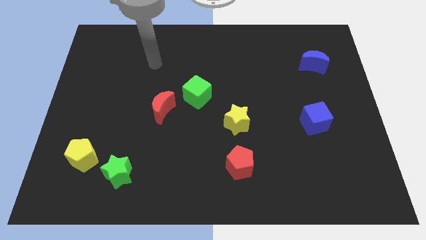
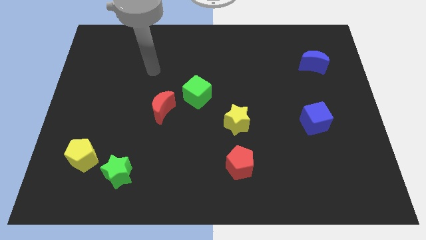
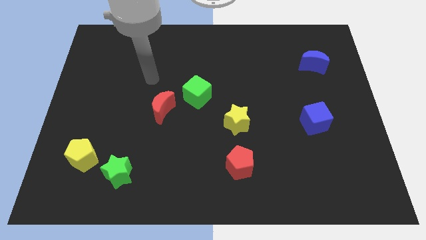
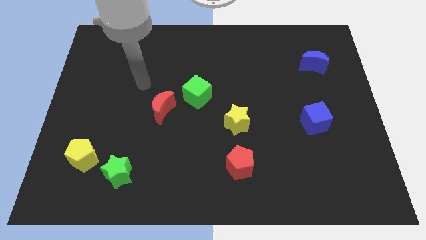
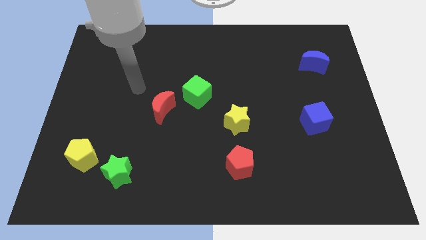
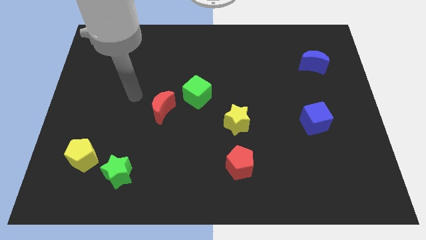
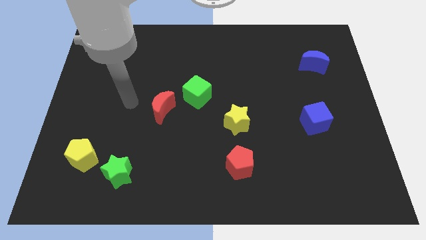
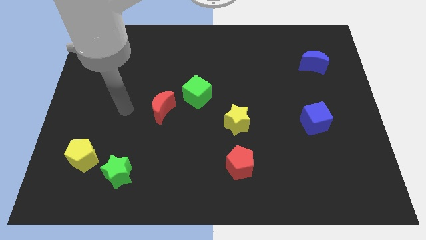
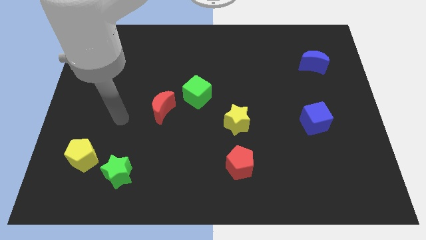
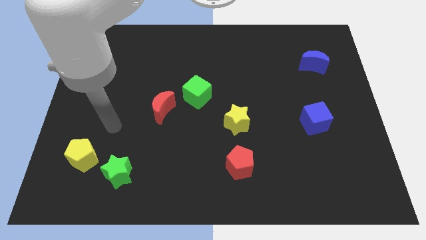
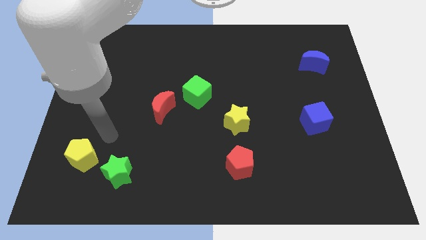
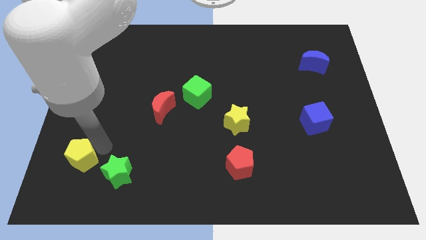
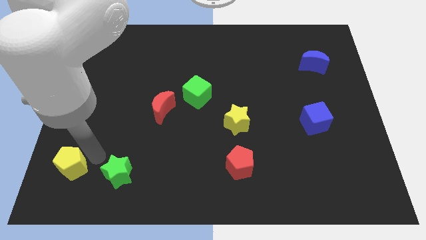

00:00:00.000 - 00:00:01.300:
move the green star away from the yellow pentagon

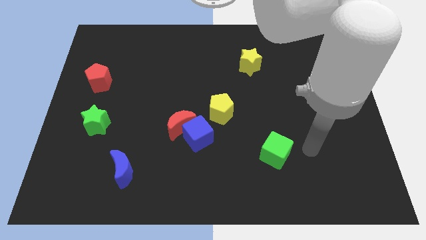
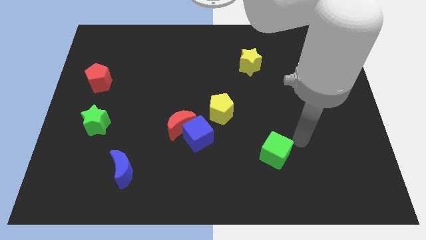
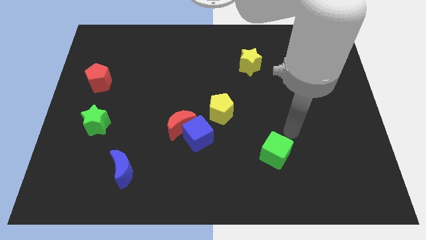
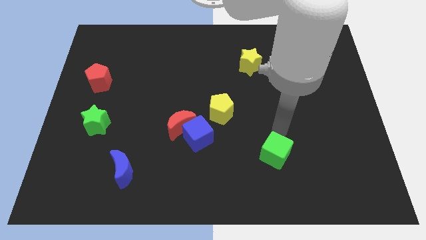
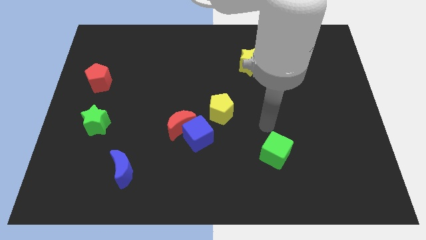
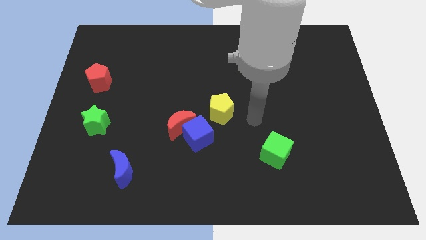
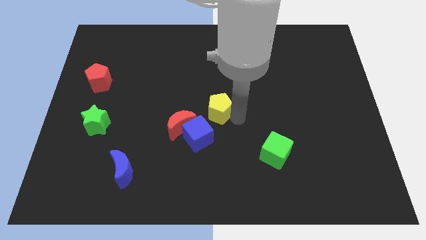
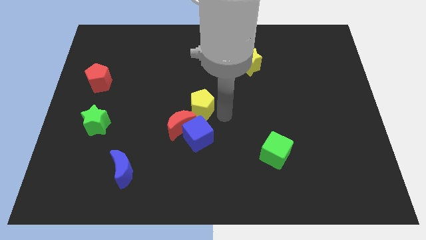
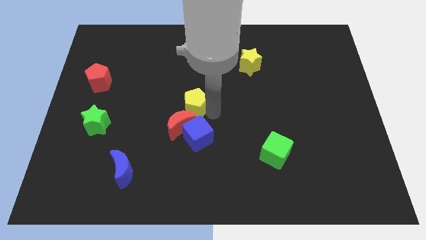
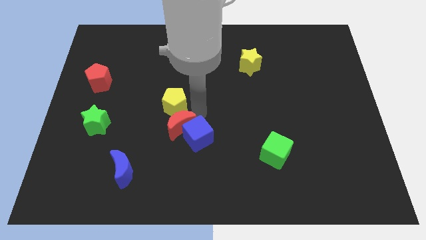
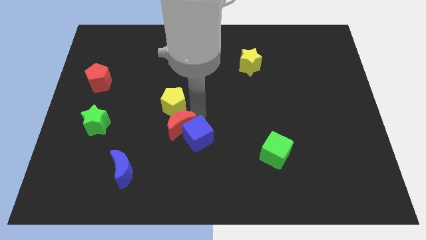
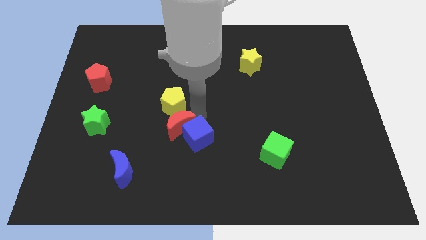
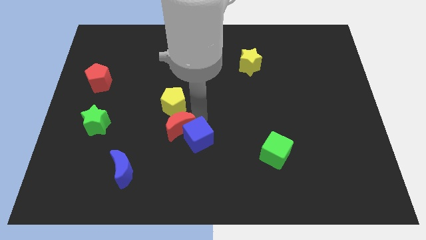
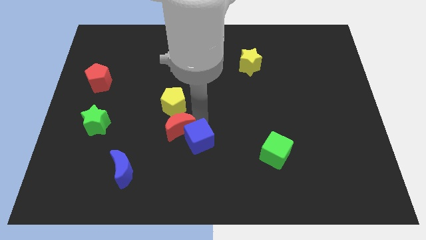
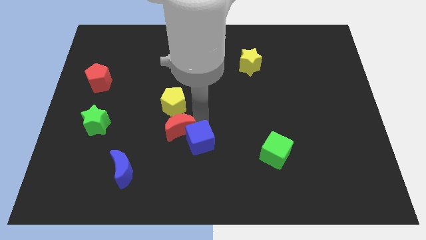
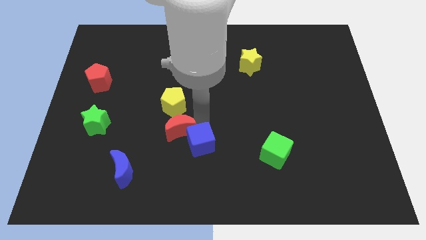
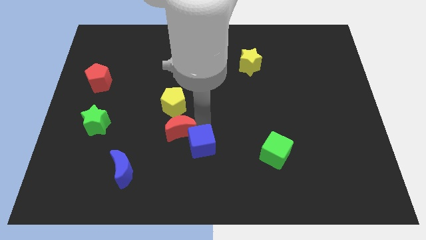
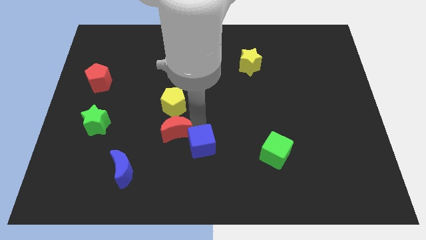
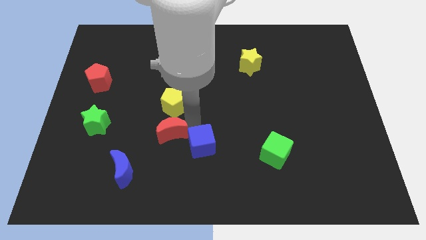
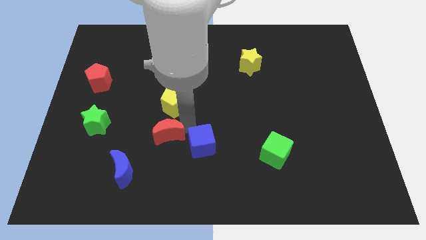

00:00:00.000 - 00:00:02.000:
pull the blue cube apart from the red moon and yellow pentagon

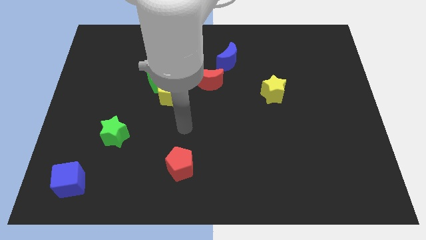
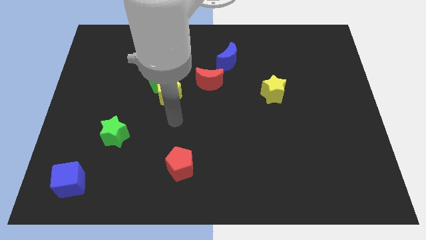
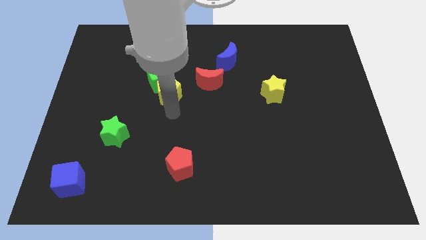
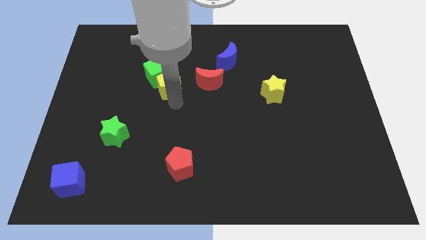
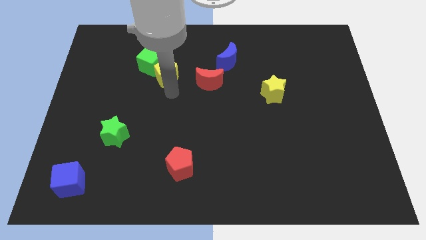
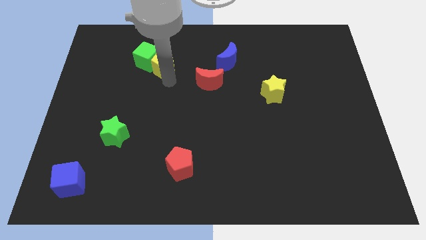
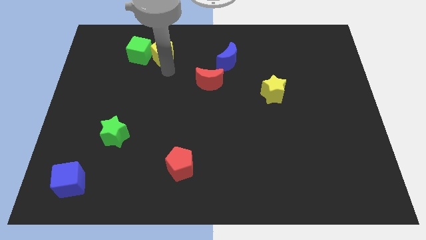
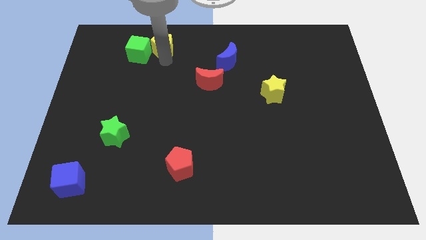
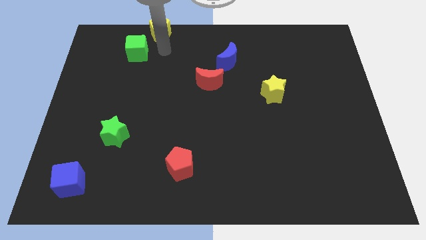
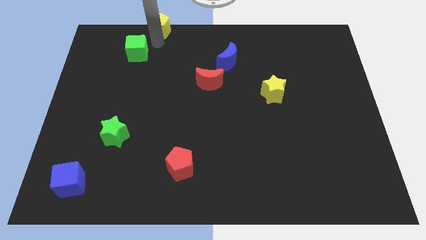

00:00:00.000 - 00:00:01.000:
pull the green cube apart from the yellow pentagon

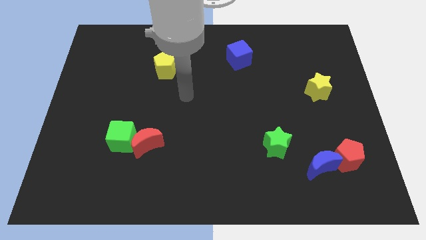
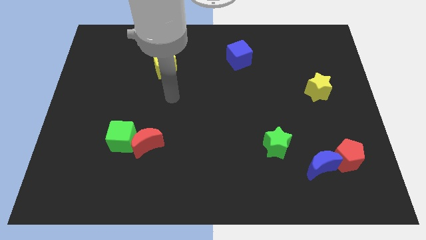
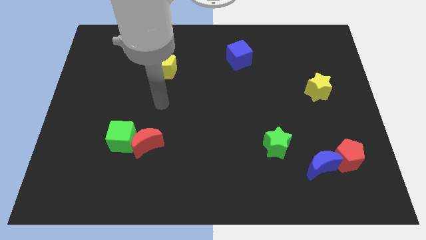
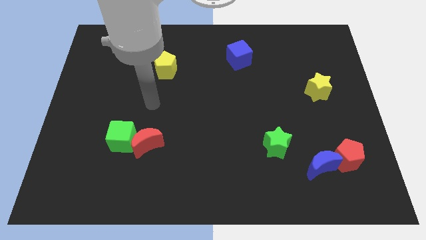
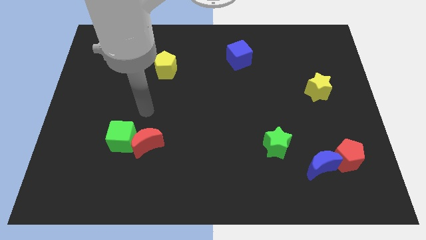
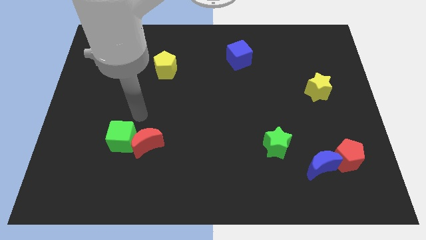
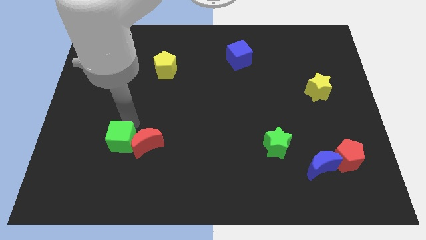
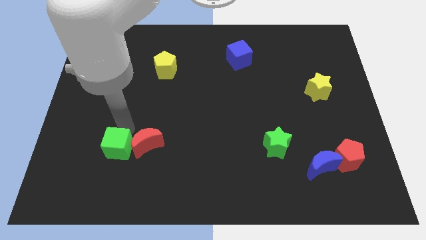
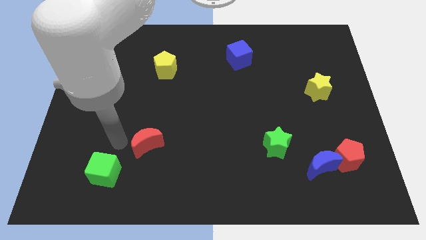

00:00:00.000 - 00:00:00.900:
separate the red moon from the green cube

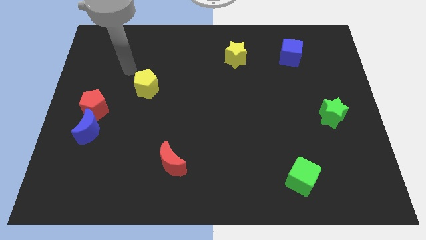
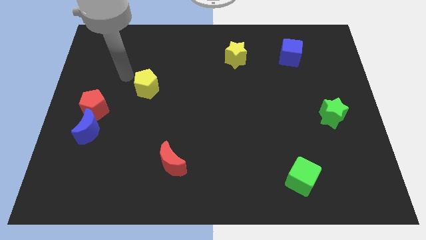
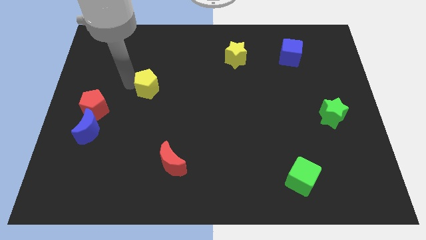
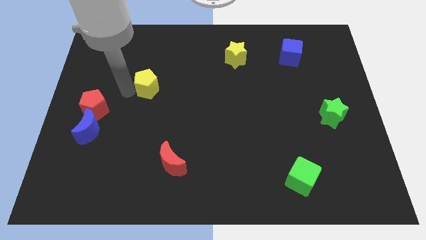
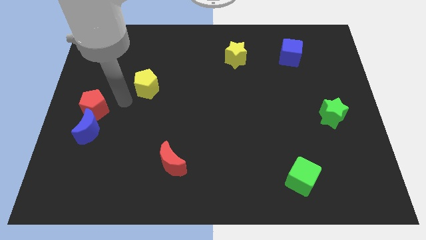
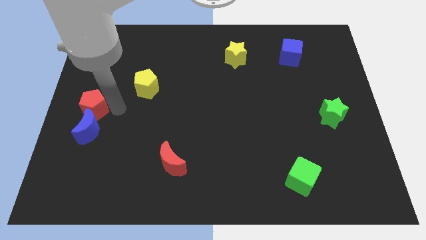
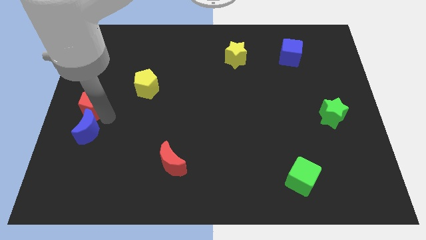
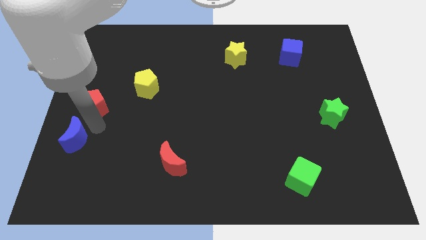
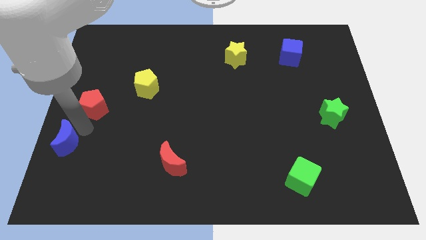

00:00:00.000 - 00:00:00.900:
move the red pentagon away from the blue moon

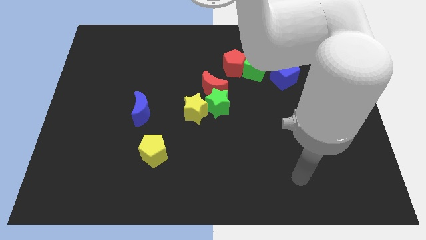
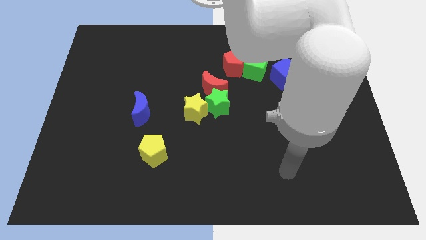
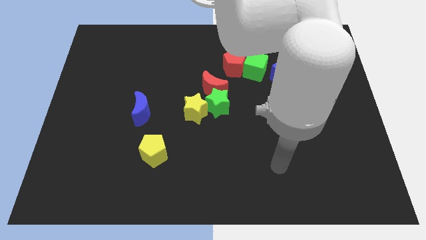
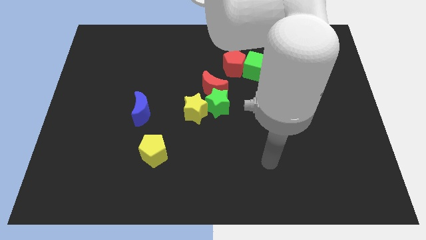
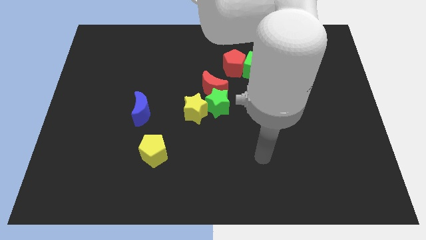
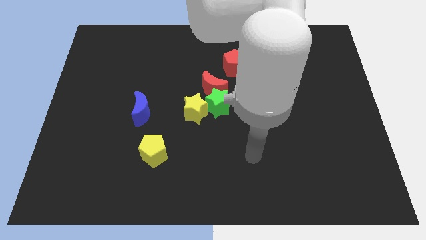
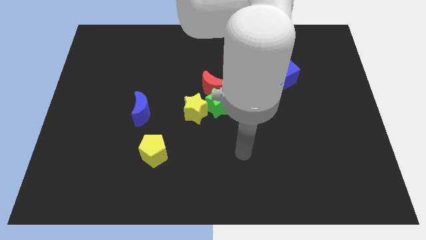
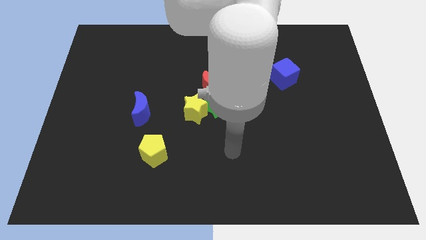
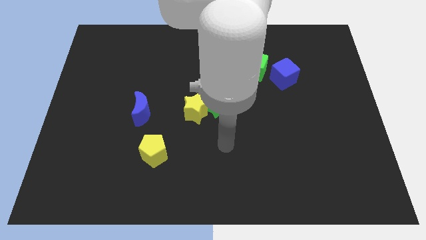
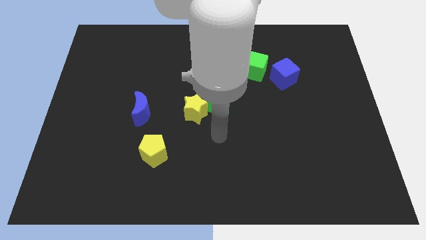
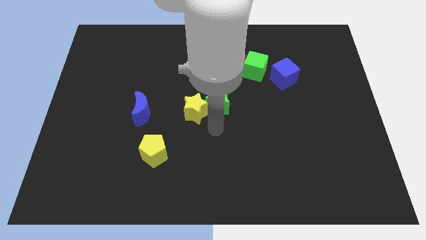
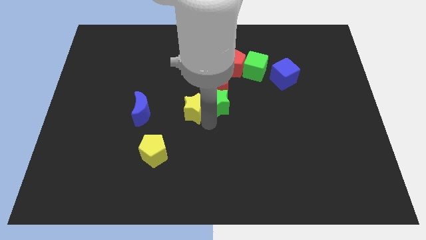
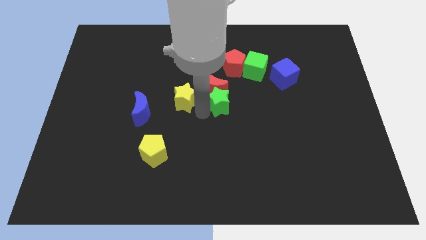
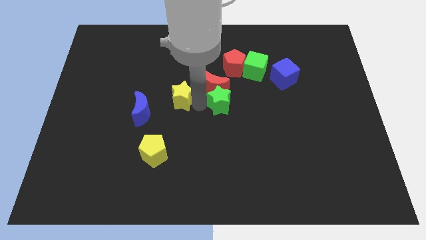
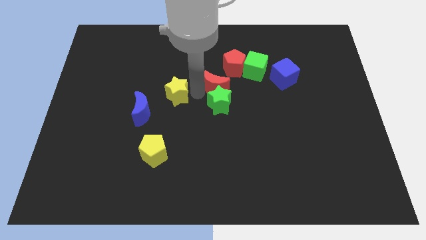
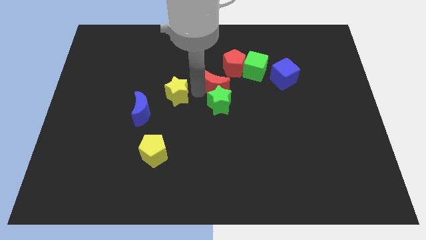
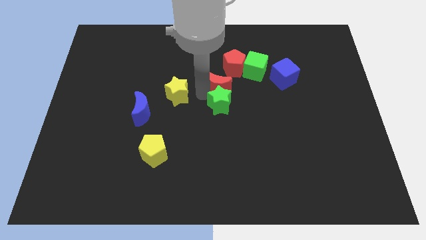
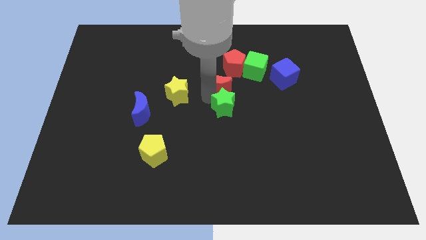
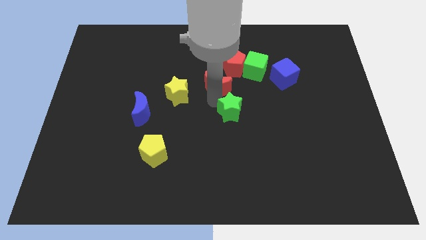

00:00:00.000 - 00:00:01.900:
pull the green star apart from the yellow star and red moon

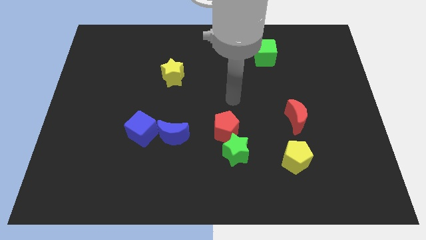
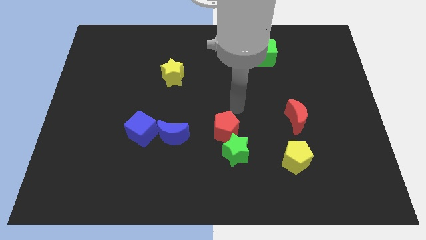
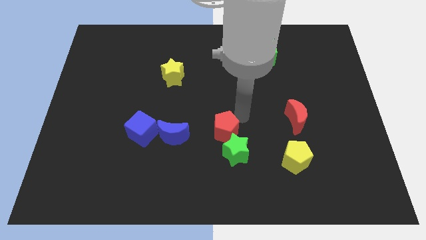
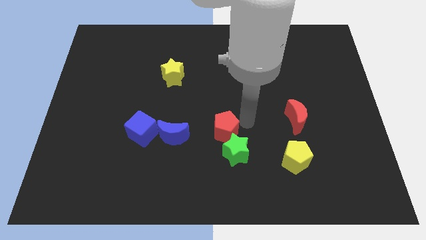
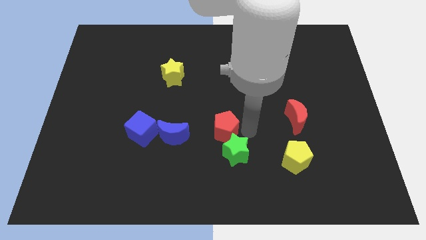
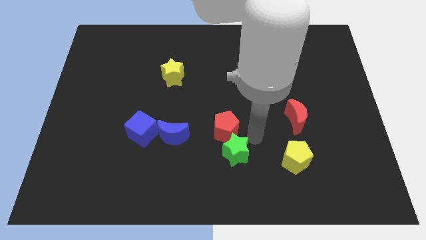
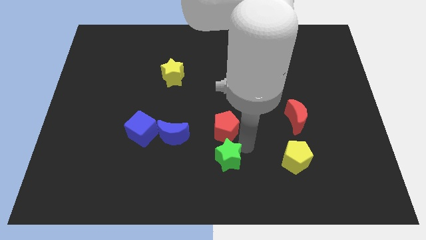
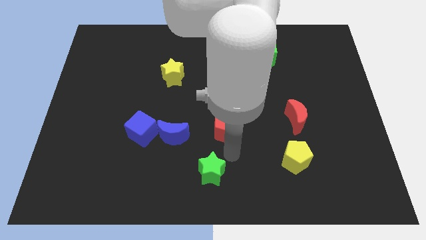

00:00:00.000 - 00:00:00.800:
move the red pentagon away from the green star

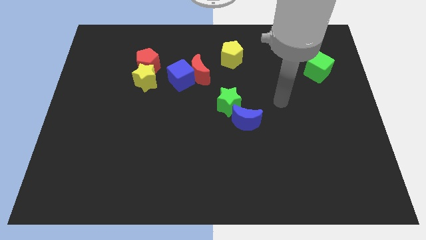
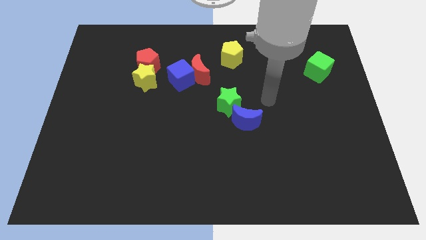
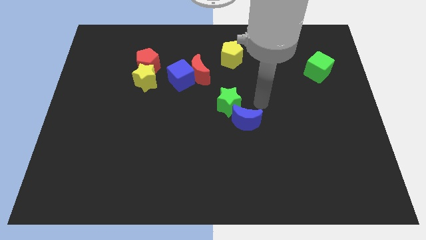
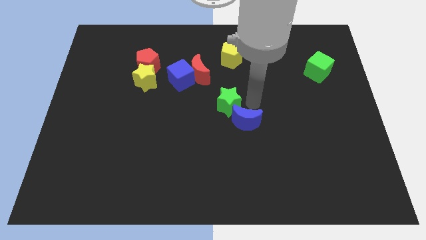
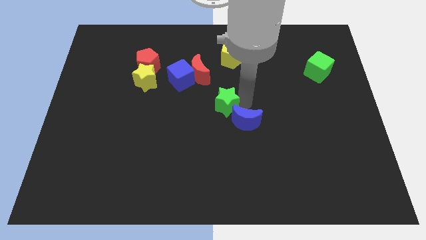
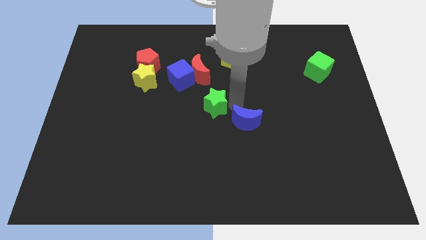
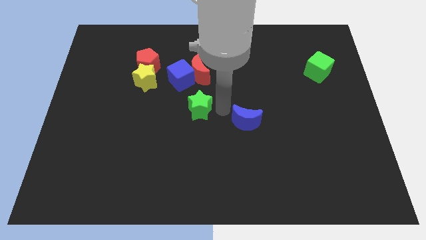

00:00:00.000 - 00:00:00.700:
move the blue moon away from the green star
